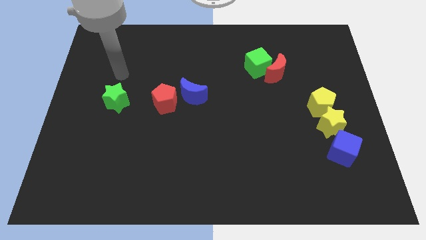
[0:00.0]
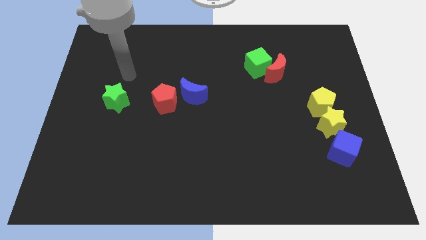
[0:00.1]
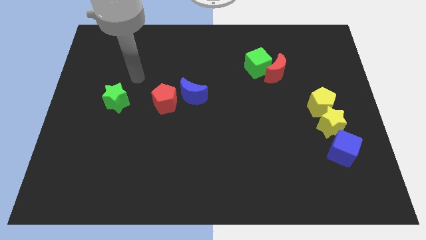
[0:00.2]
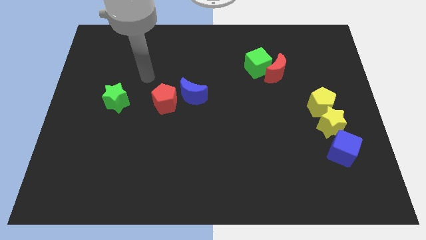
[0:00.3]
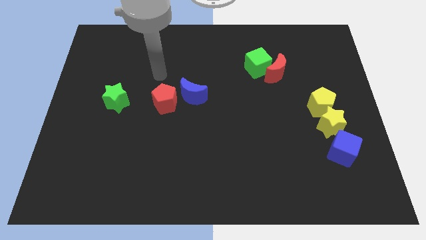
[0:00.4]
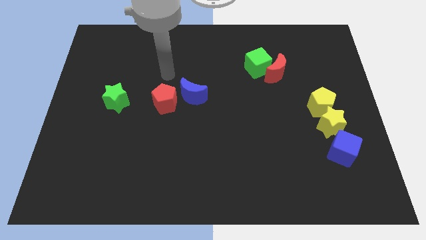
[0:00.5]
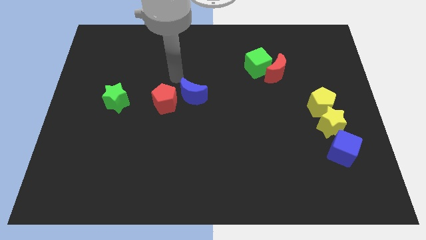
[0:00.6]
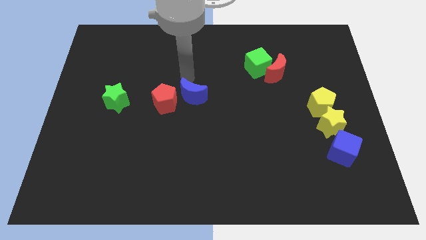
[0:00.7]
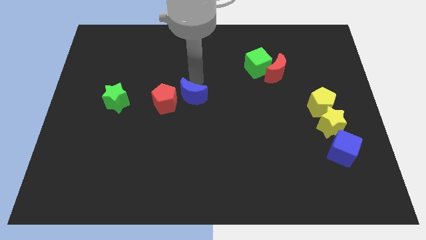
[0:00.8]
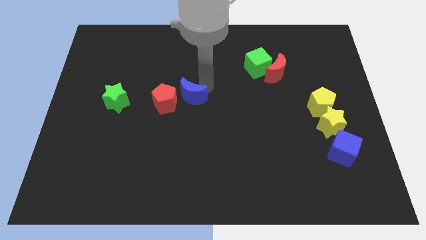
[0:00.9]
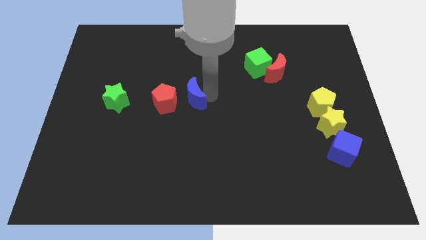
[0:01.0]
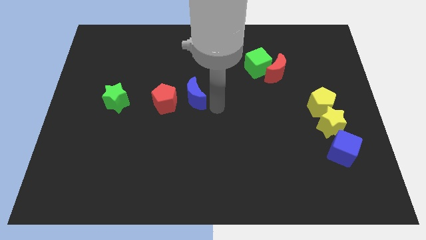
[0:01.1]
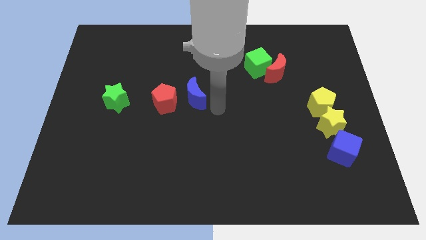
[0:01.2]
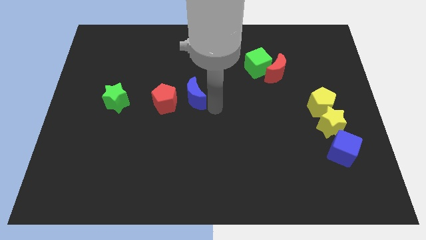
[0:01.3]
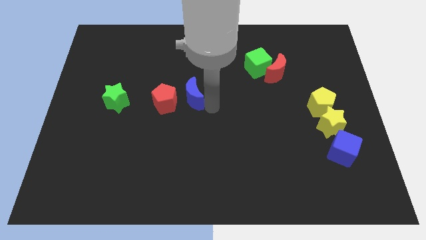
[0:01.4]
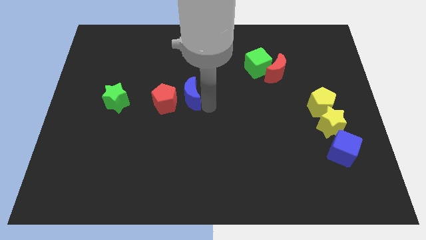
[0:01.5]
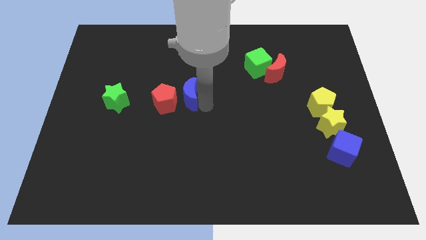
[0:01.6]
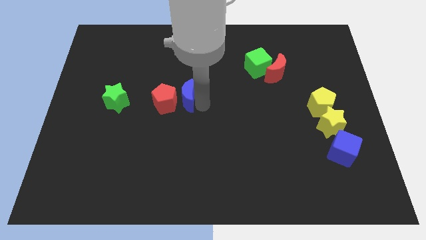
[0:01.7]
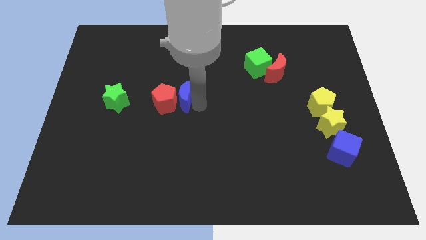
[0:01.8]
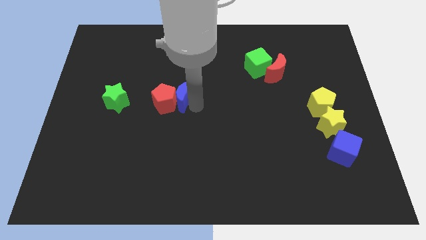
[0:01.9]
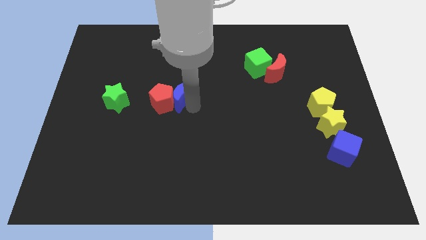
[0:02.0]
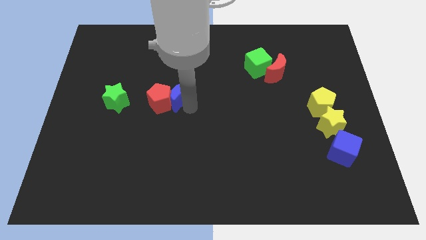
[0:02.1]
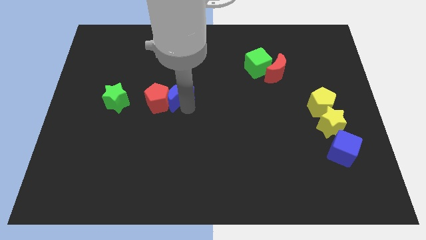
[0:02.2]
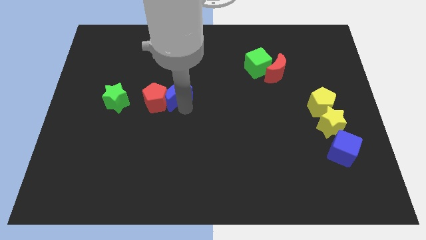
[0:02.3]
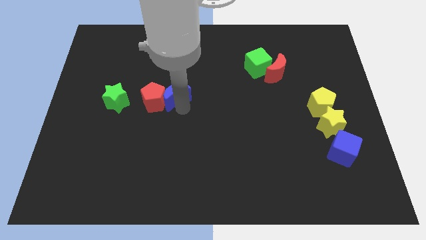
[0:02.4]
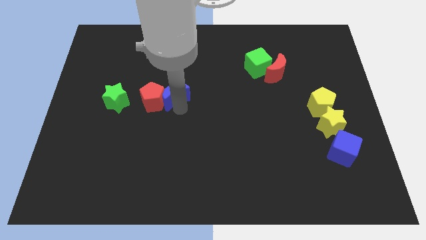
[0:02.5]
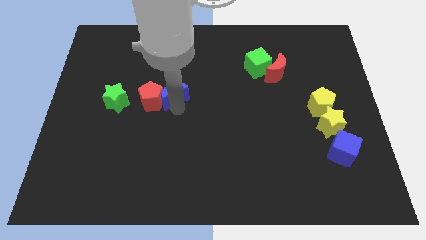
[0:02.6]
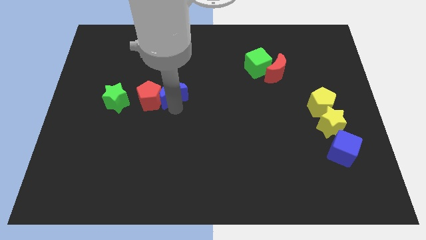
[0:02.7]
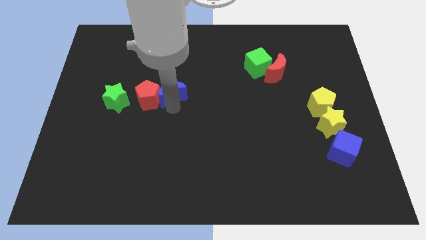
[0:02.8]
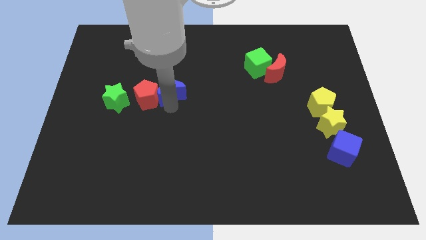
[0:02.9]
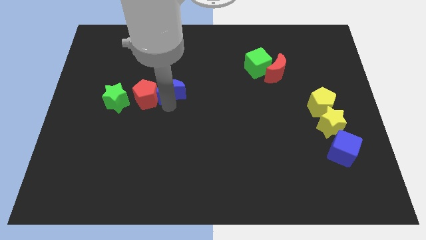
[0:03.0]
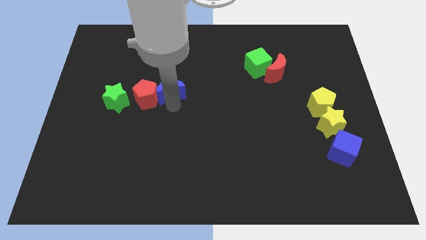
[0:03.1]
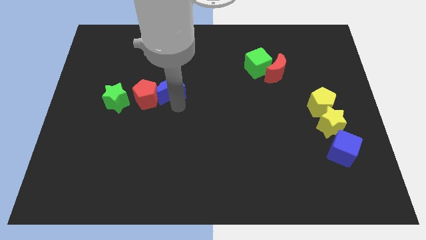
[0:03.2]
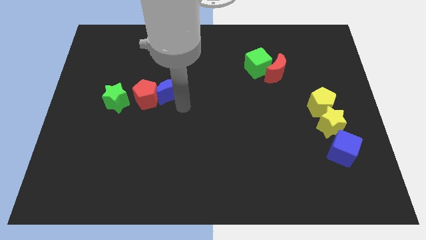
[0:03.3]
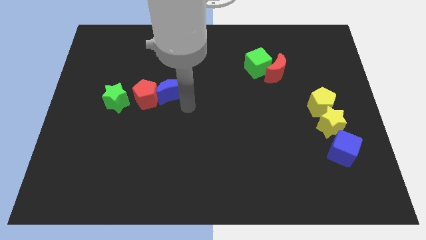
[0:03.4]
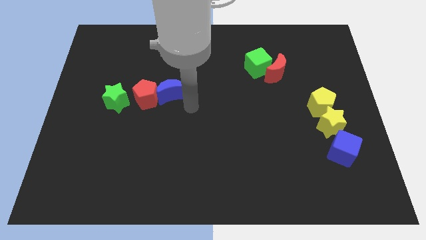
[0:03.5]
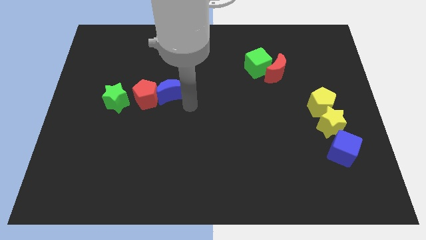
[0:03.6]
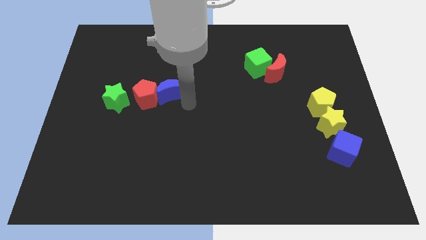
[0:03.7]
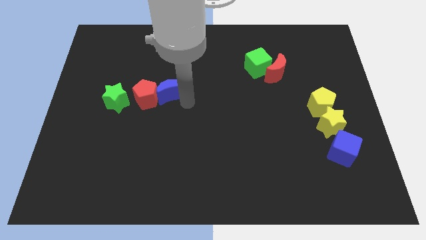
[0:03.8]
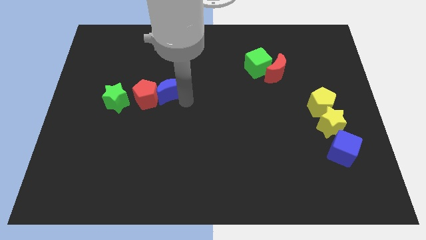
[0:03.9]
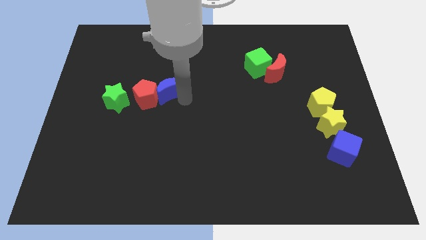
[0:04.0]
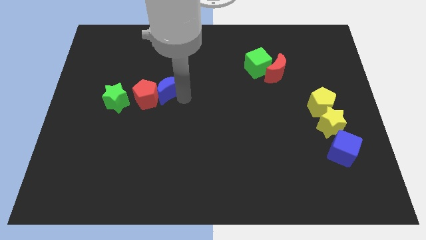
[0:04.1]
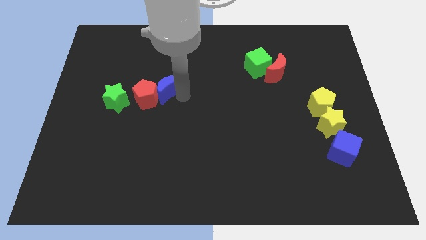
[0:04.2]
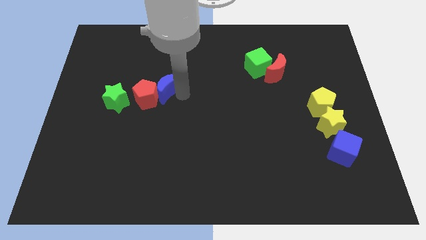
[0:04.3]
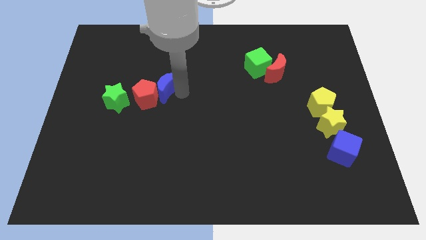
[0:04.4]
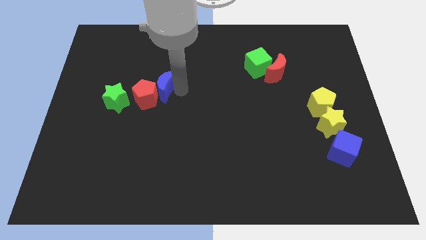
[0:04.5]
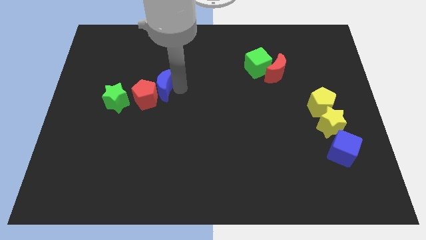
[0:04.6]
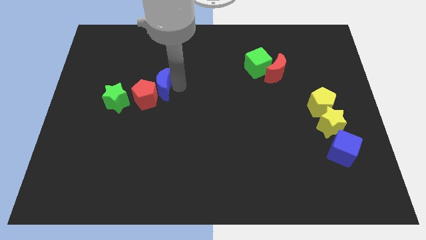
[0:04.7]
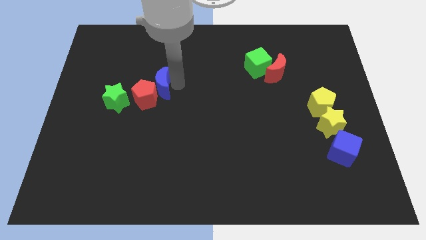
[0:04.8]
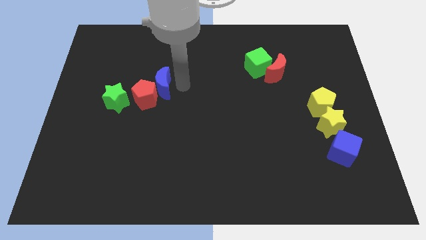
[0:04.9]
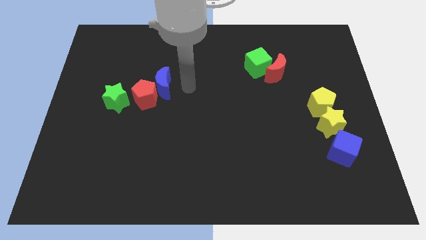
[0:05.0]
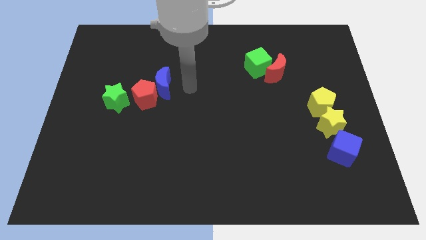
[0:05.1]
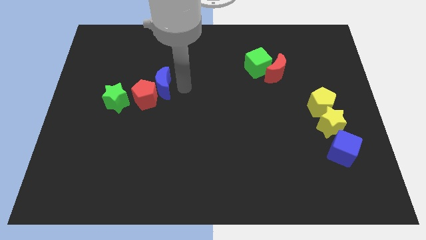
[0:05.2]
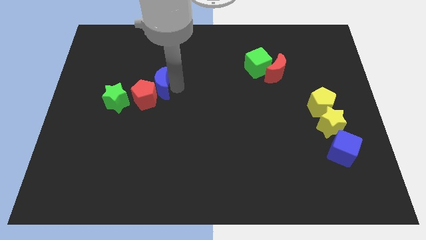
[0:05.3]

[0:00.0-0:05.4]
move the blue moon to the top right side of the green star

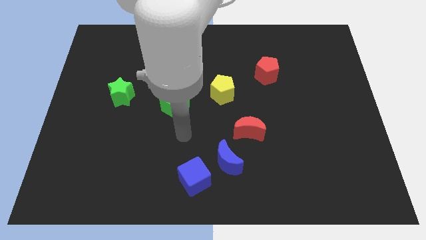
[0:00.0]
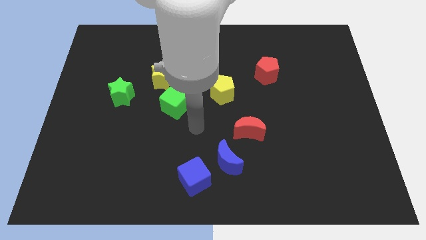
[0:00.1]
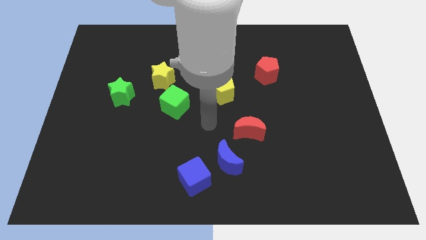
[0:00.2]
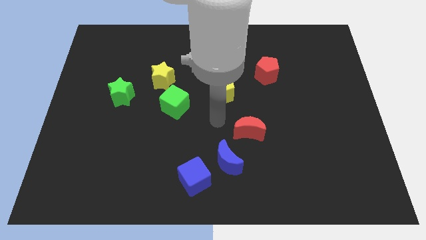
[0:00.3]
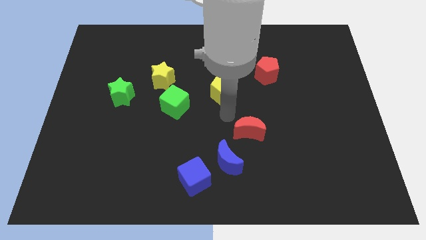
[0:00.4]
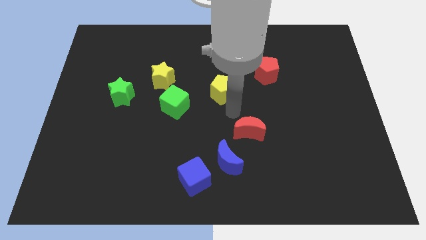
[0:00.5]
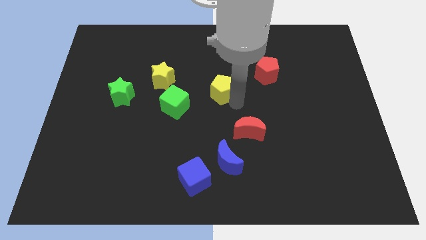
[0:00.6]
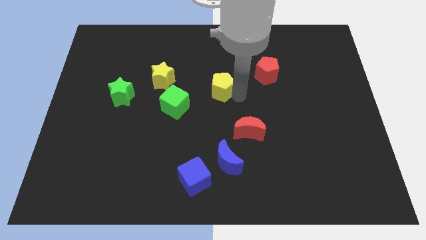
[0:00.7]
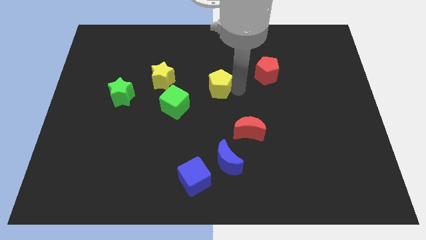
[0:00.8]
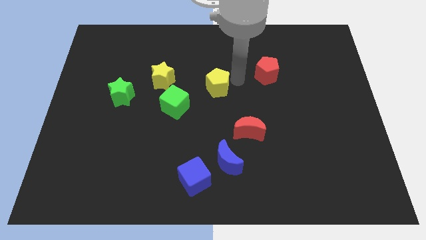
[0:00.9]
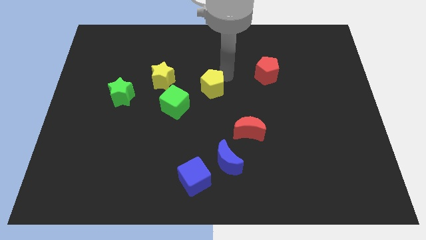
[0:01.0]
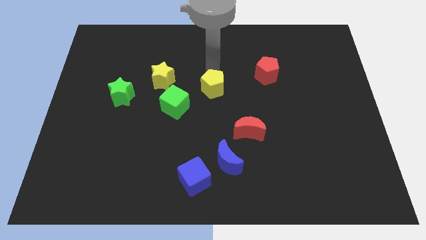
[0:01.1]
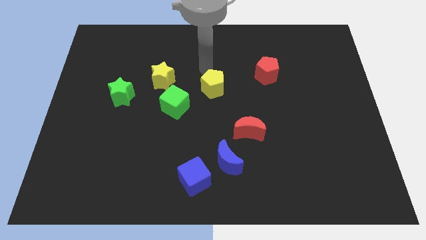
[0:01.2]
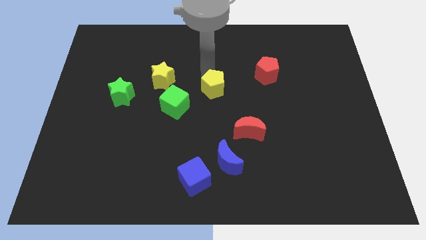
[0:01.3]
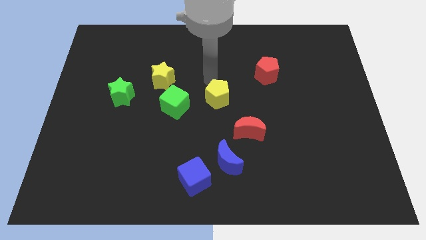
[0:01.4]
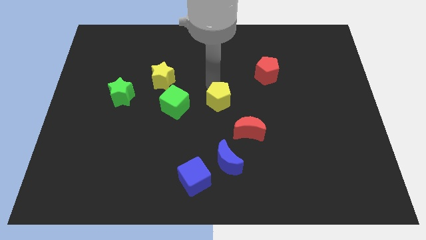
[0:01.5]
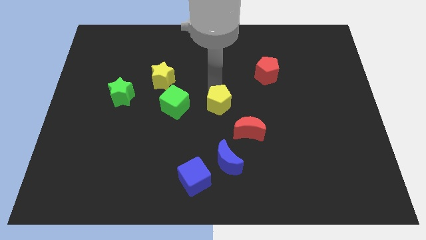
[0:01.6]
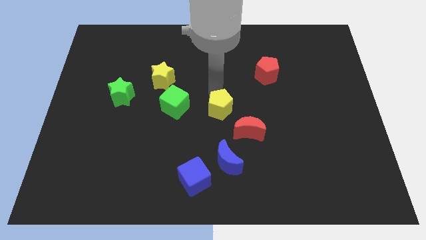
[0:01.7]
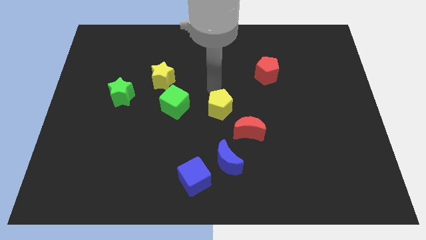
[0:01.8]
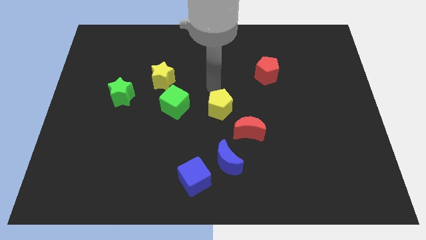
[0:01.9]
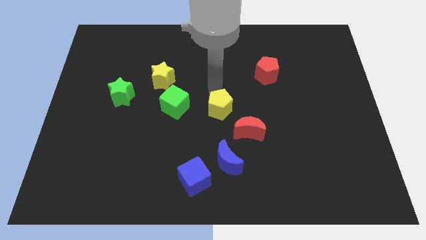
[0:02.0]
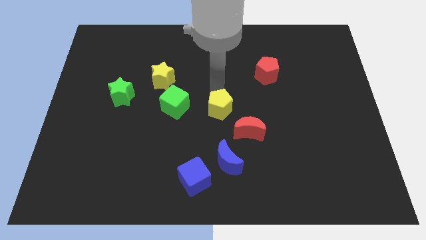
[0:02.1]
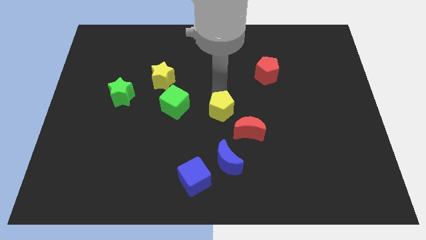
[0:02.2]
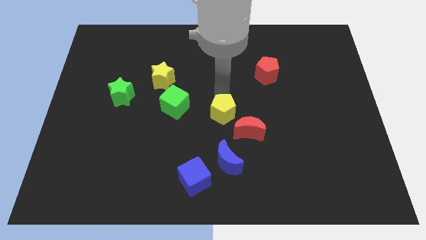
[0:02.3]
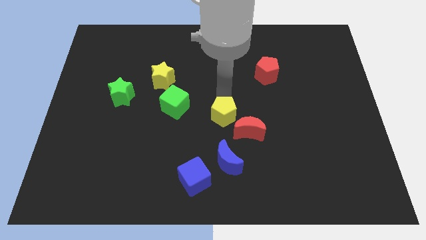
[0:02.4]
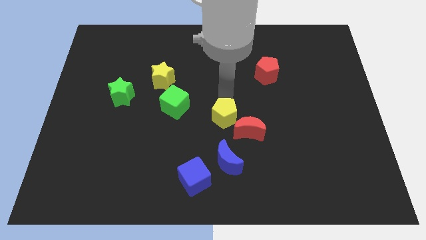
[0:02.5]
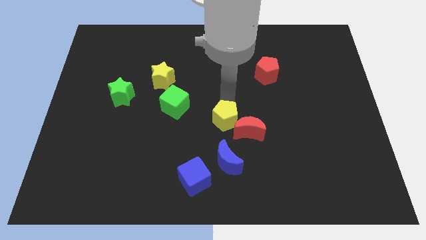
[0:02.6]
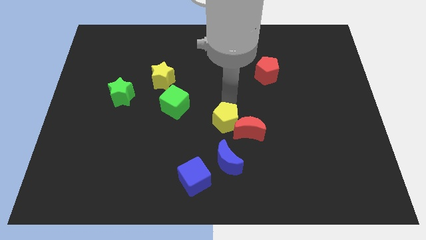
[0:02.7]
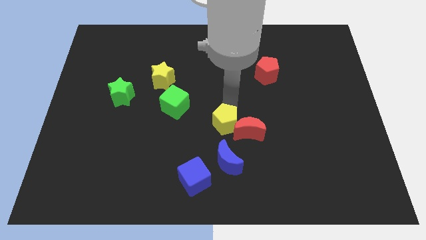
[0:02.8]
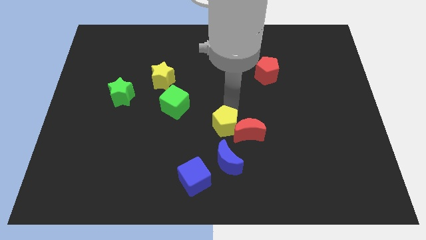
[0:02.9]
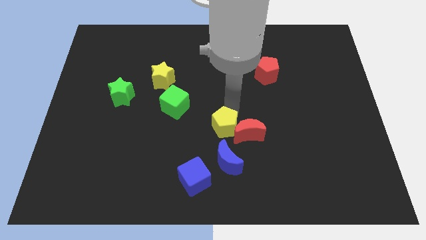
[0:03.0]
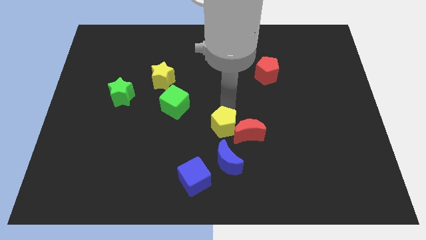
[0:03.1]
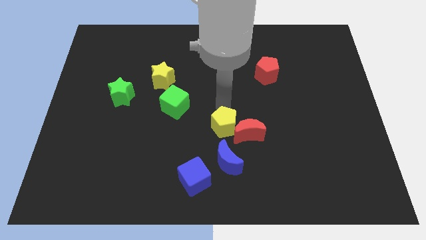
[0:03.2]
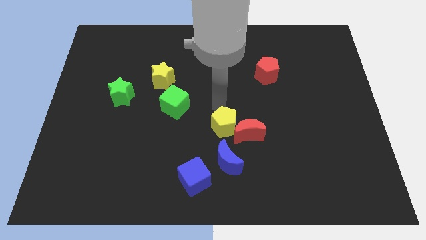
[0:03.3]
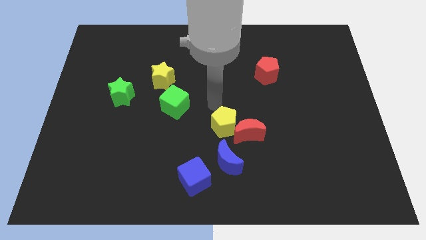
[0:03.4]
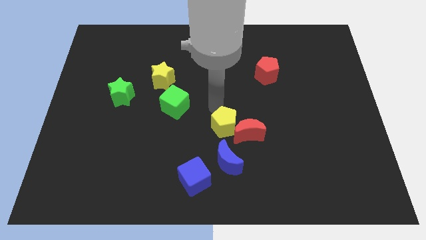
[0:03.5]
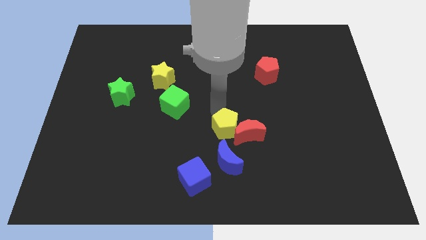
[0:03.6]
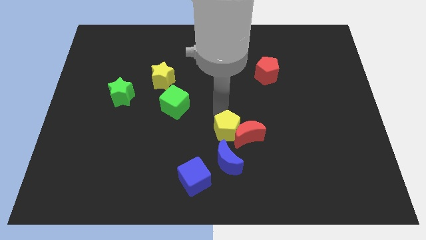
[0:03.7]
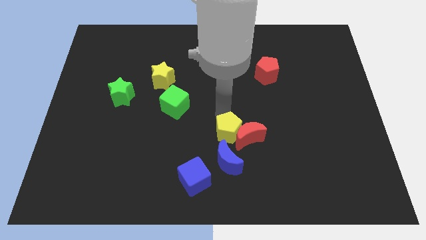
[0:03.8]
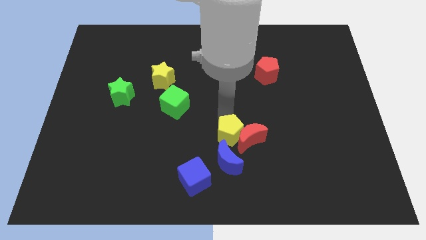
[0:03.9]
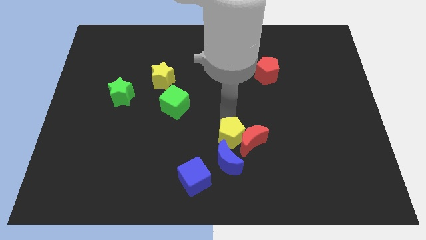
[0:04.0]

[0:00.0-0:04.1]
slide the yellow pentagon diagonally up and to the right of the blue cube
